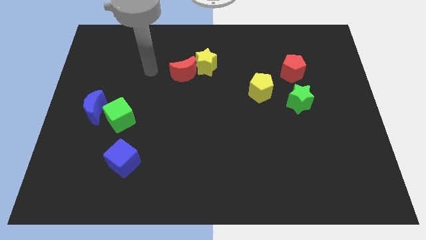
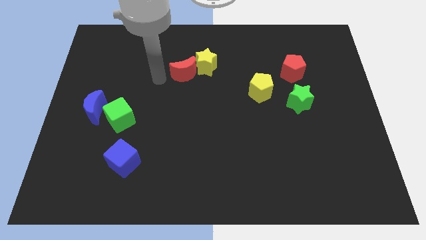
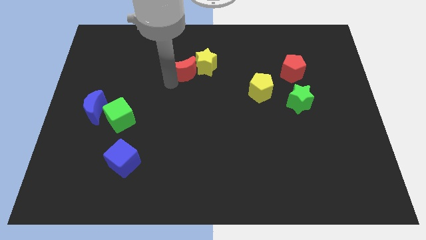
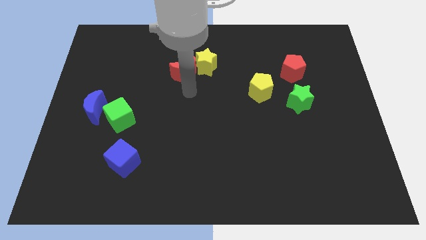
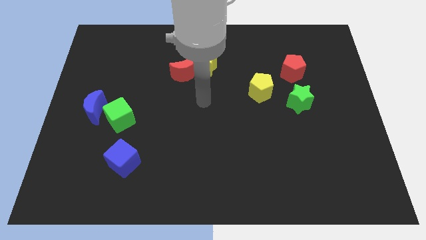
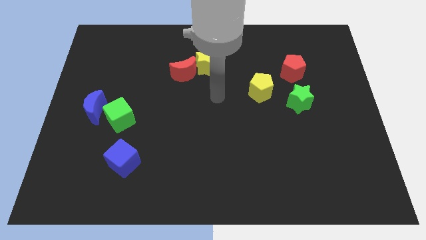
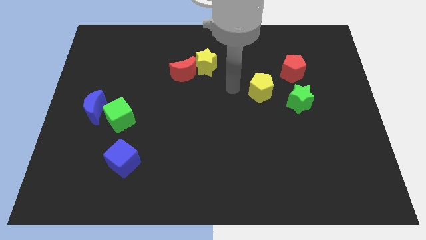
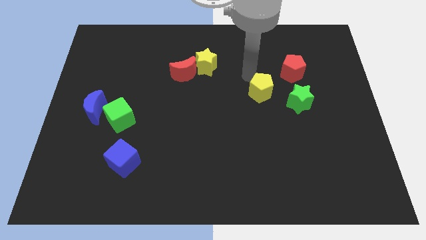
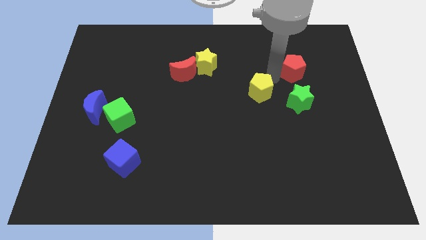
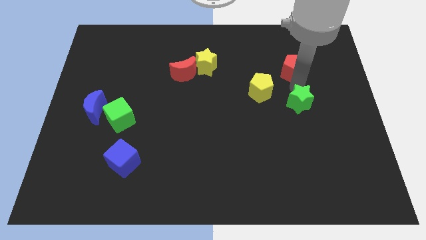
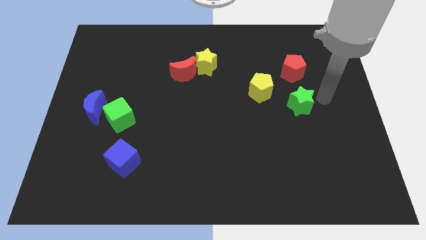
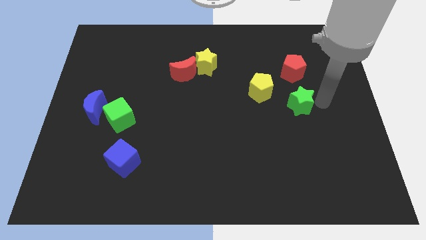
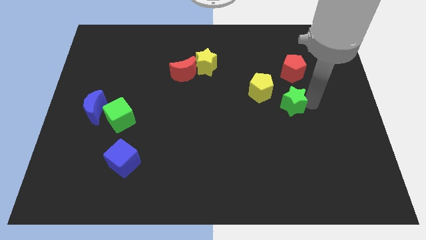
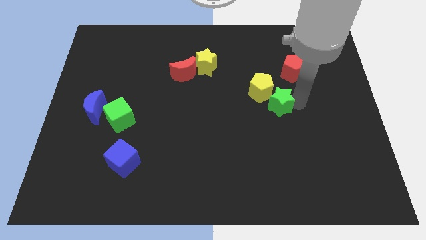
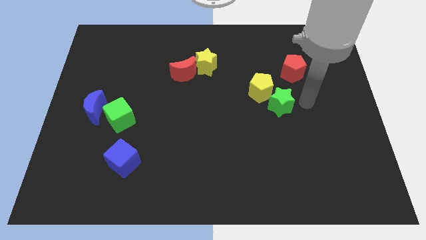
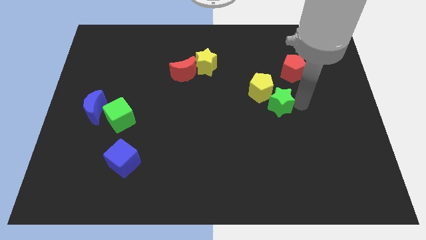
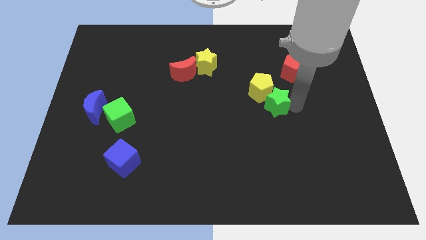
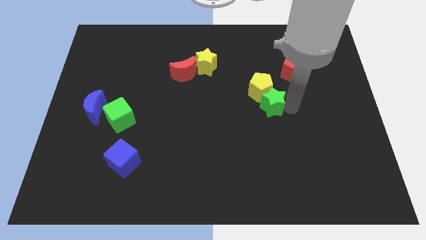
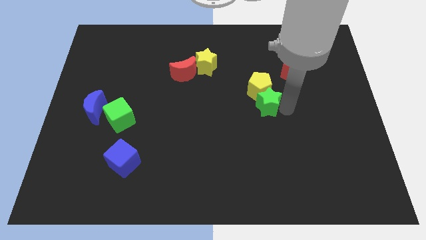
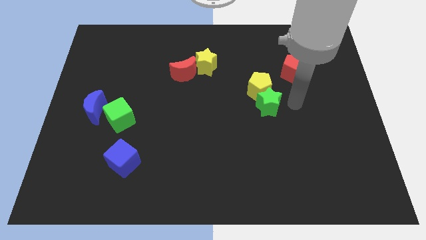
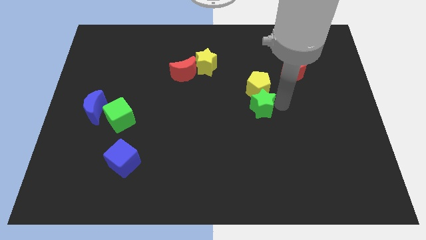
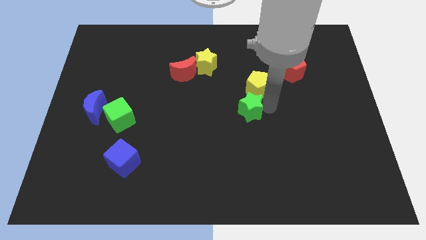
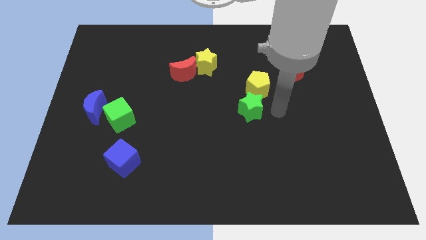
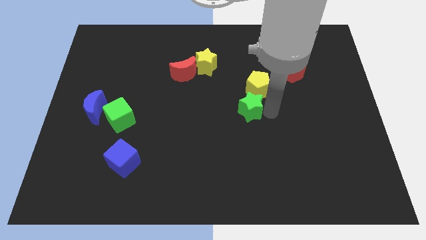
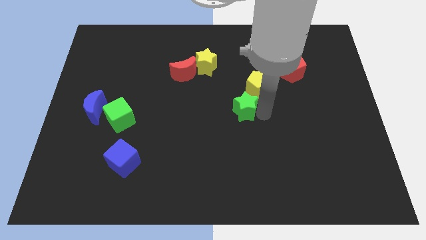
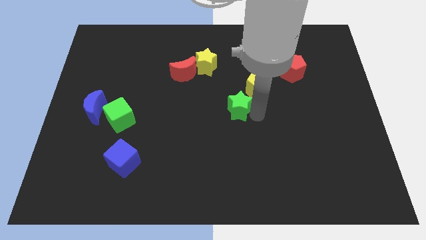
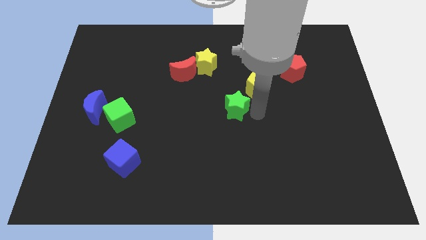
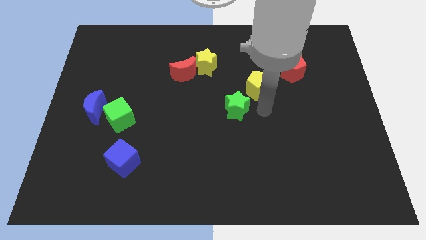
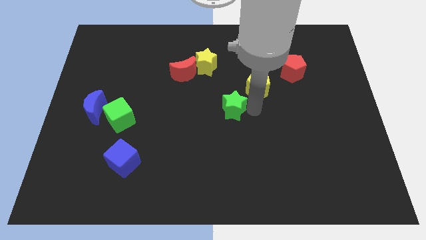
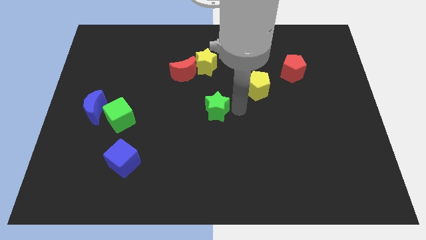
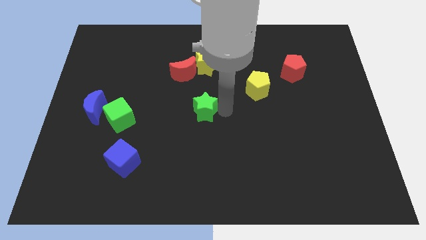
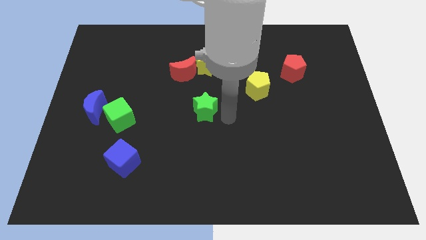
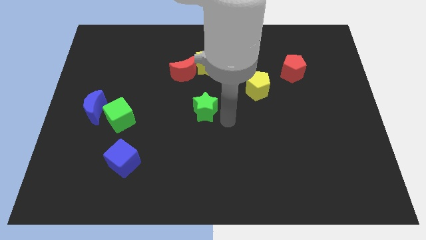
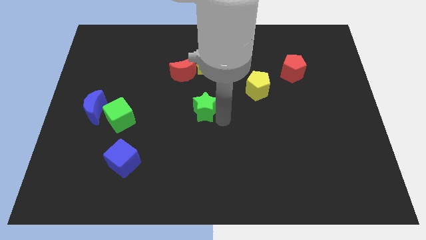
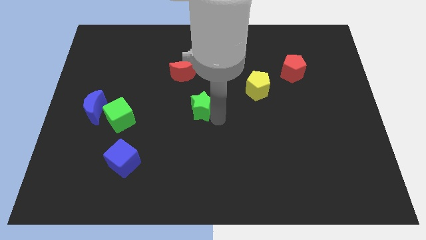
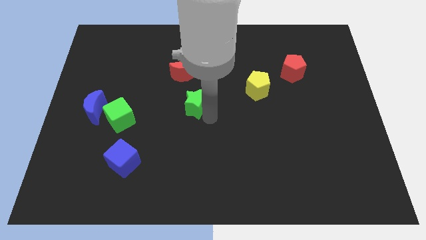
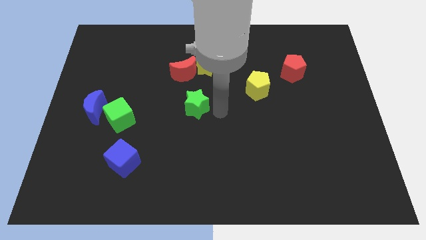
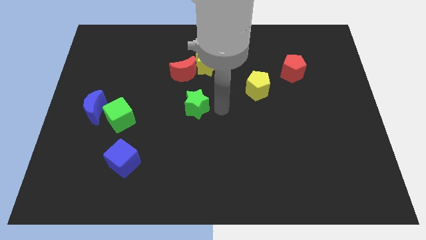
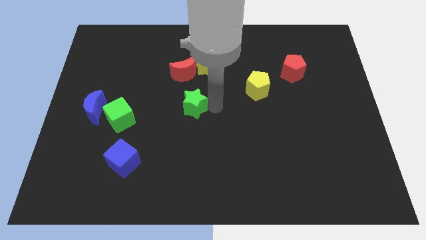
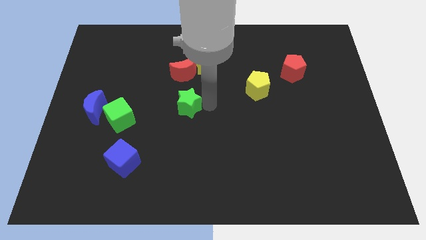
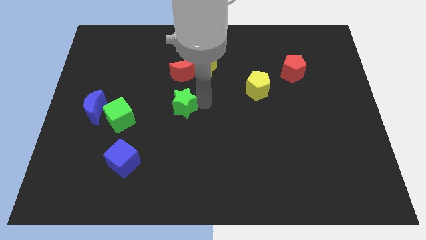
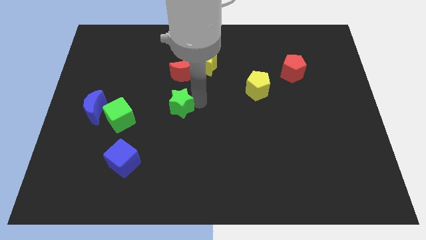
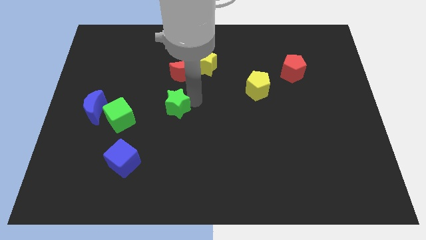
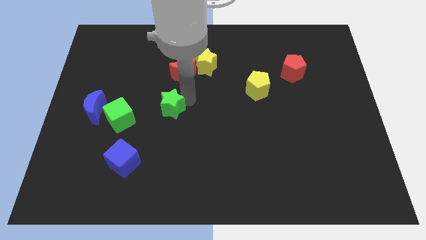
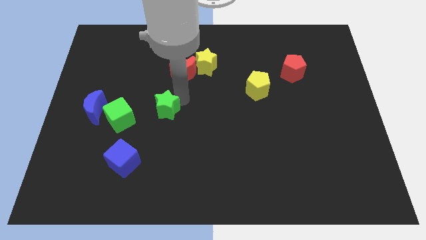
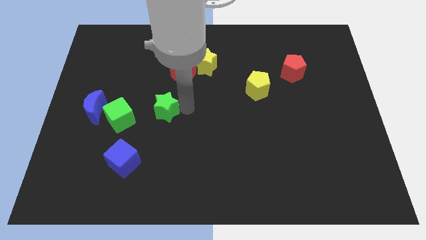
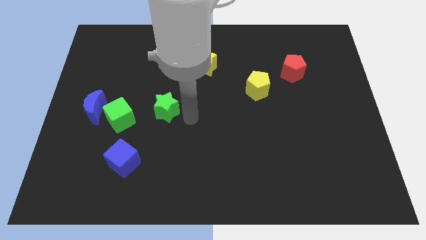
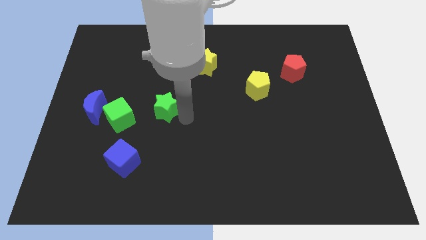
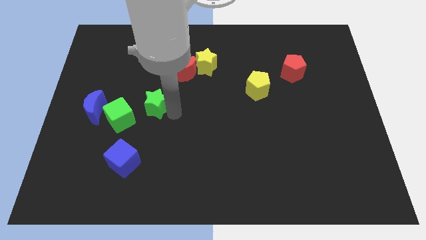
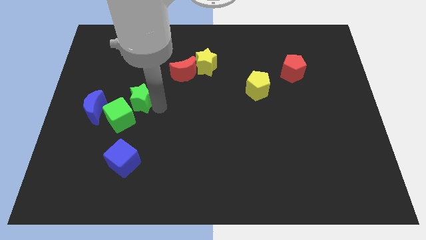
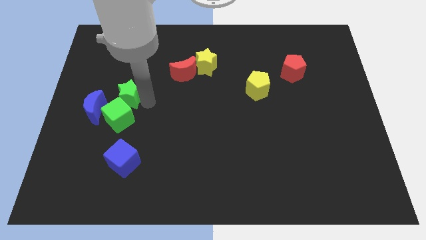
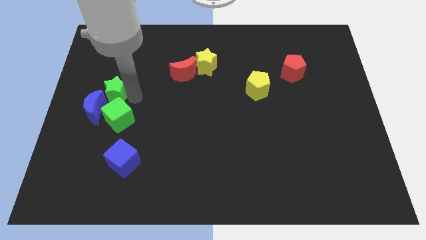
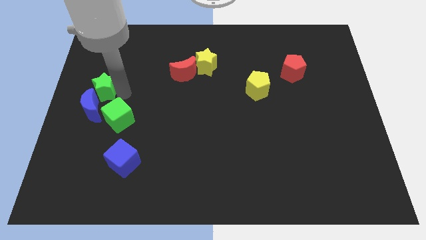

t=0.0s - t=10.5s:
move the green star to the left side of the board

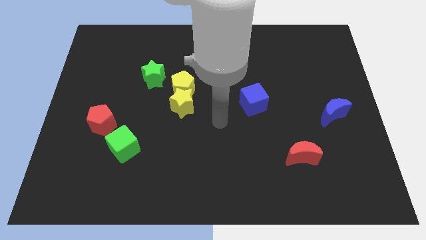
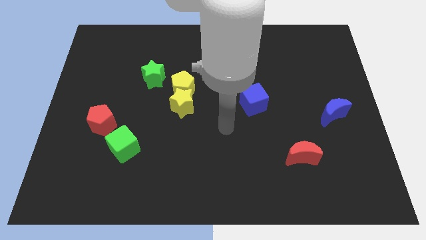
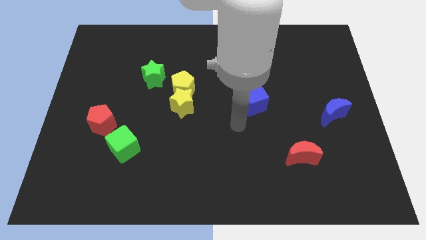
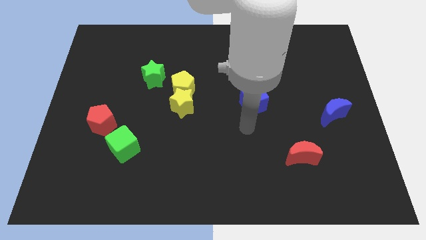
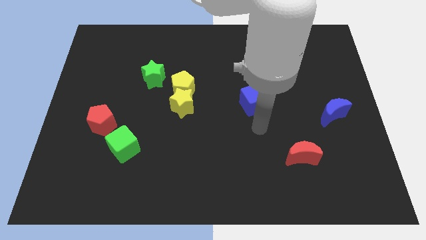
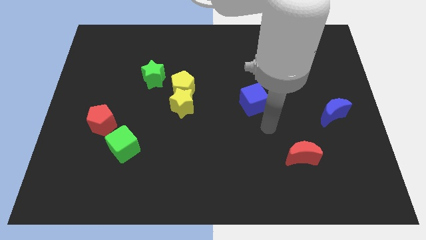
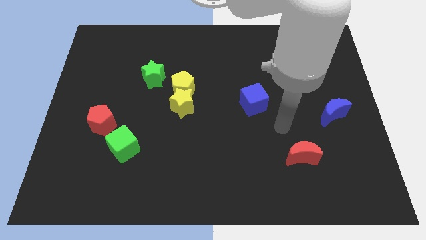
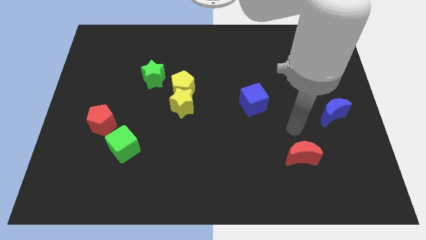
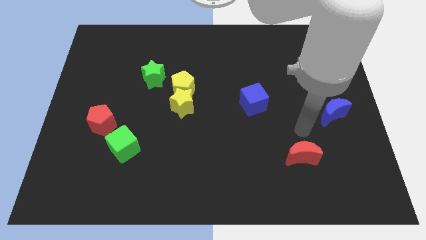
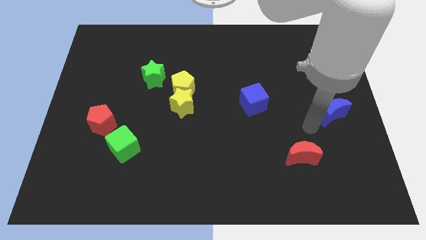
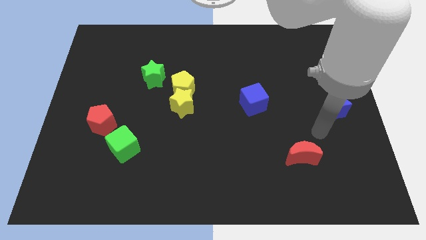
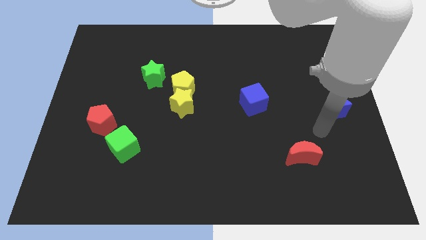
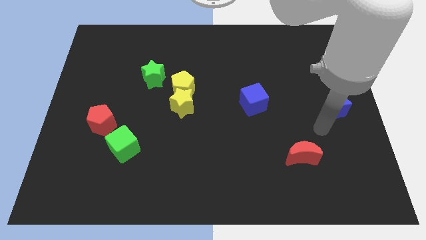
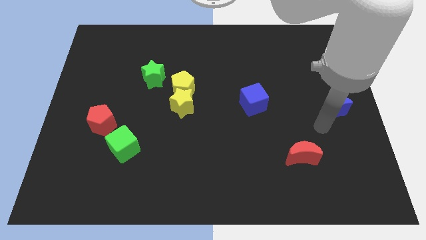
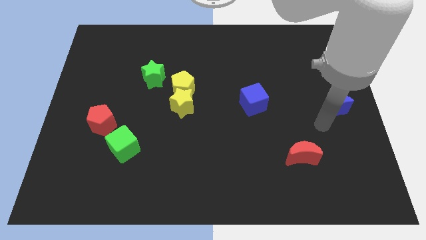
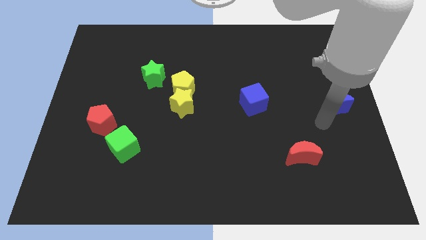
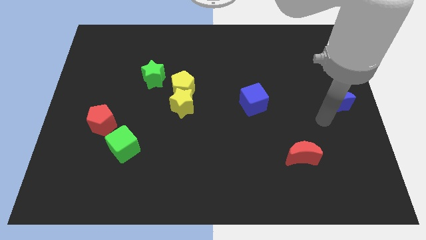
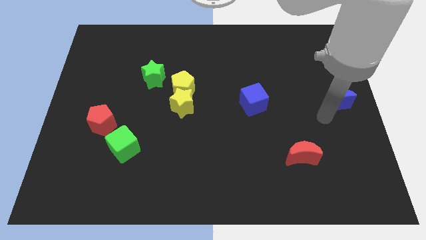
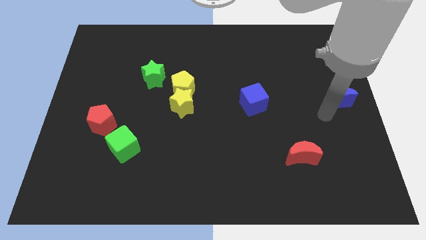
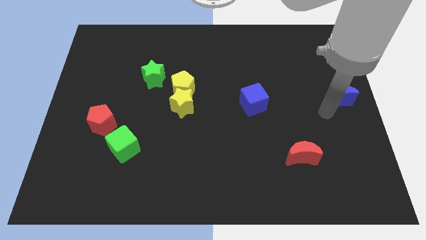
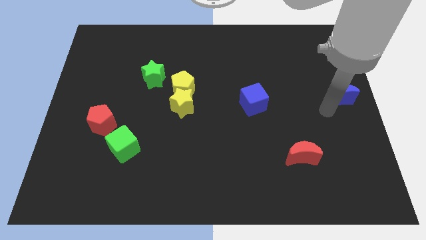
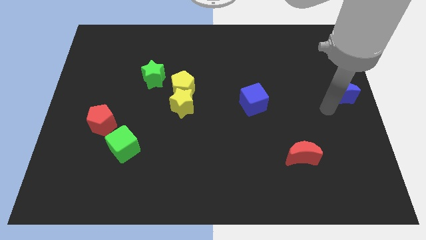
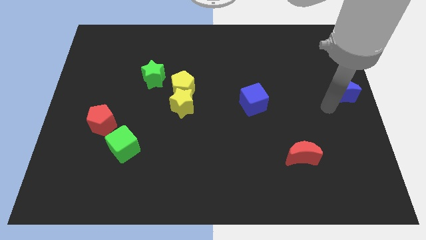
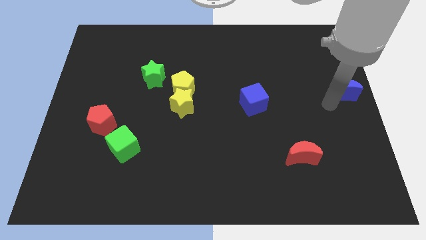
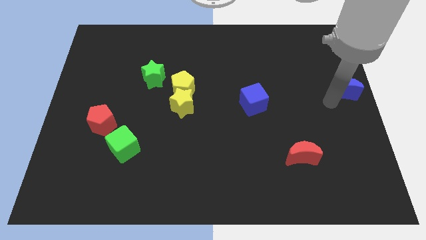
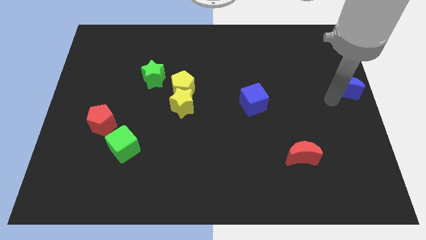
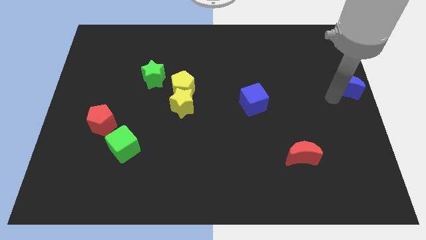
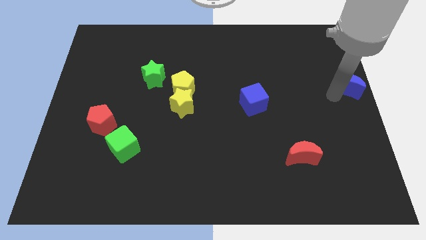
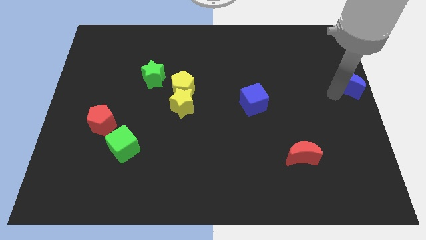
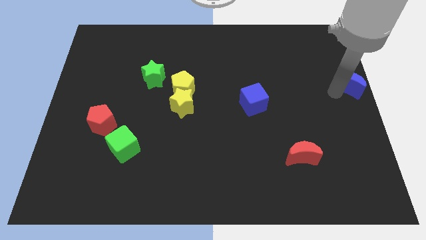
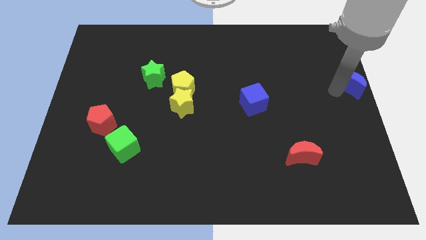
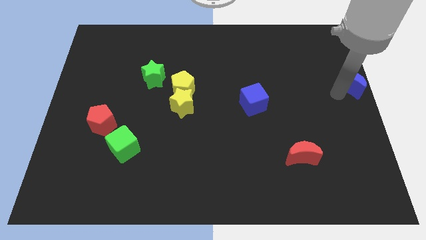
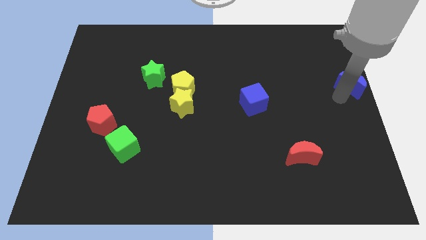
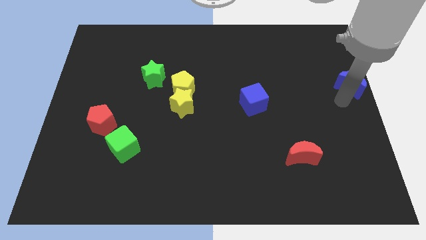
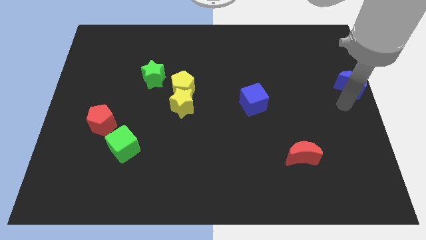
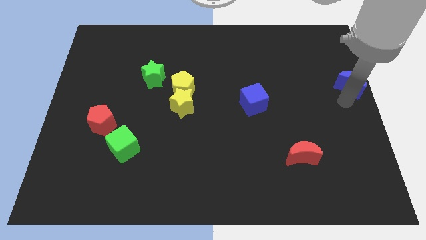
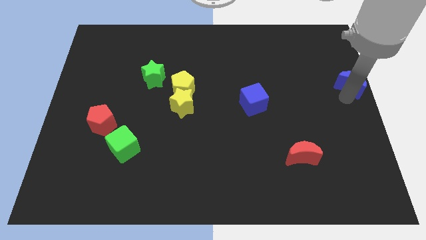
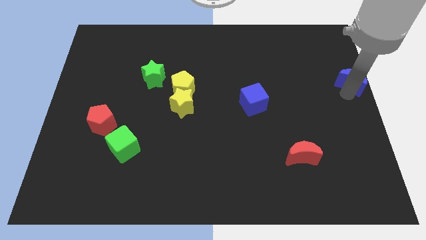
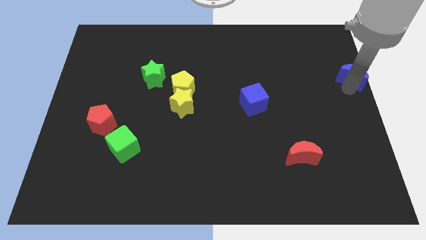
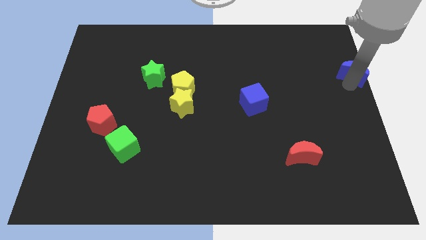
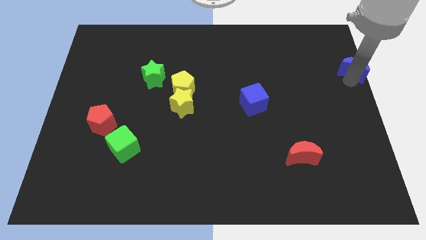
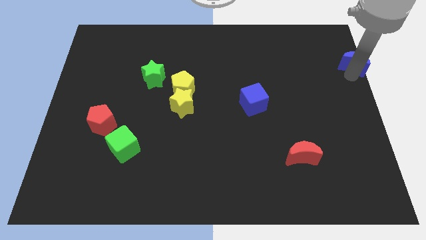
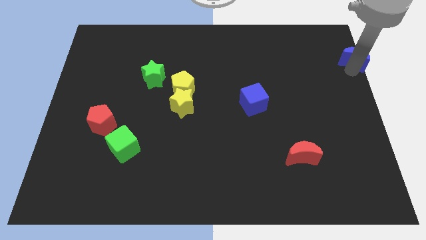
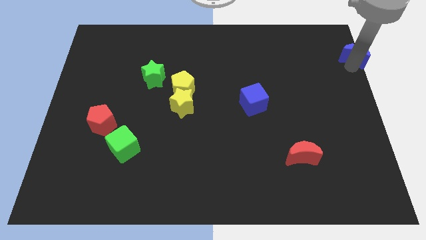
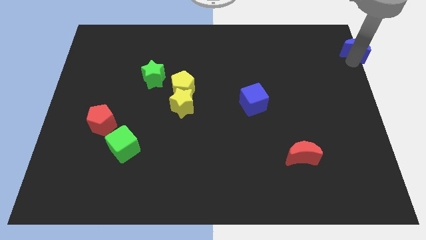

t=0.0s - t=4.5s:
move the blue moon to the top right corner
